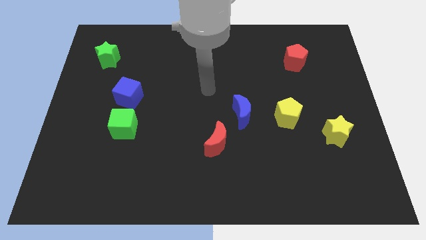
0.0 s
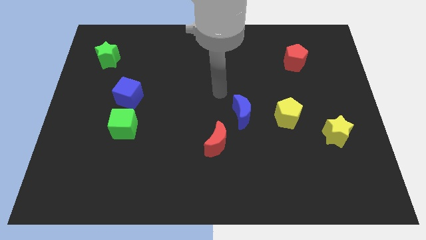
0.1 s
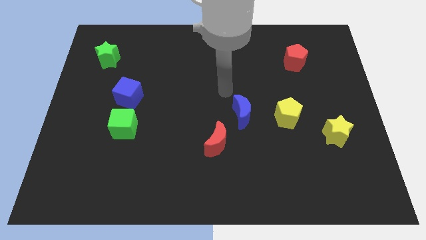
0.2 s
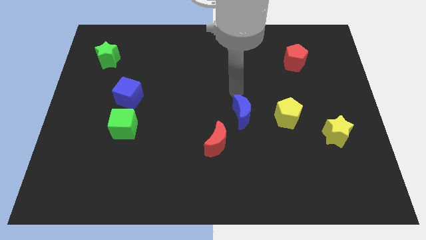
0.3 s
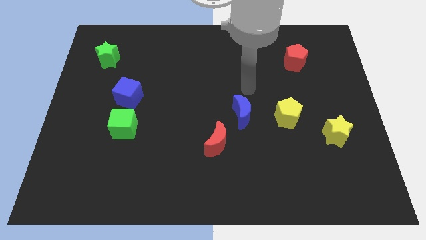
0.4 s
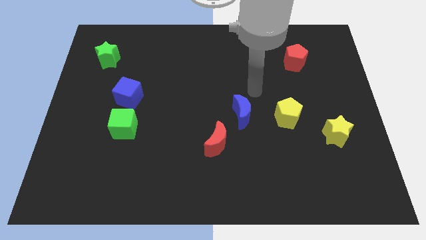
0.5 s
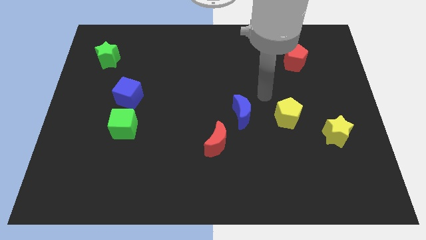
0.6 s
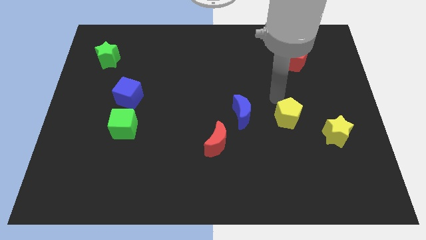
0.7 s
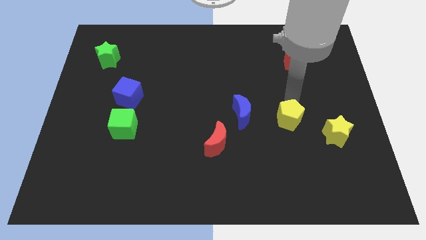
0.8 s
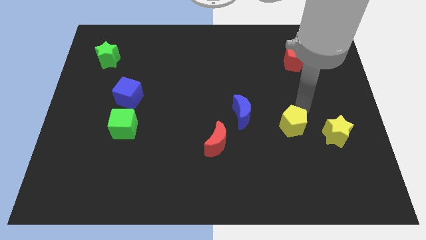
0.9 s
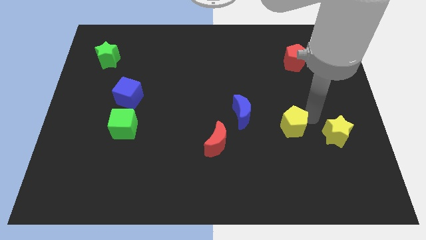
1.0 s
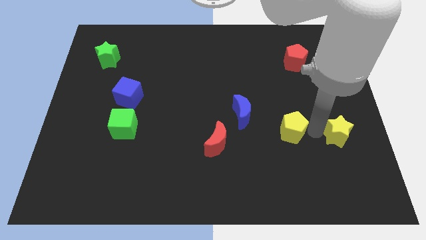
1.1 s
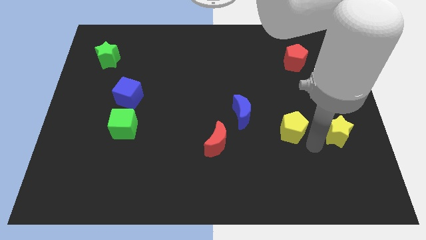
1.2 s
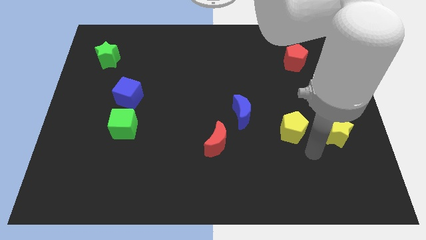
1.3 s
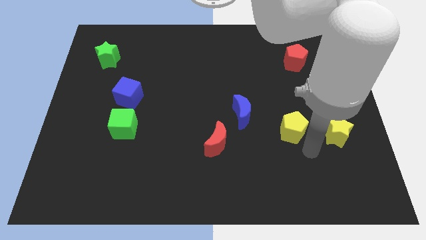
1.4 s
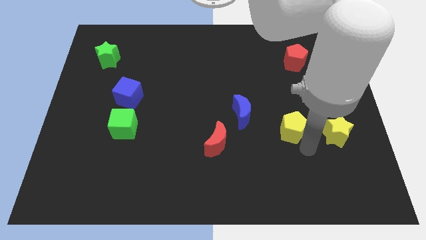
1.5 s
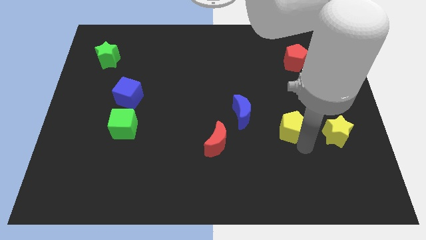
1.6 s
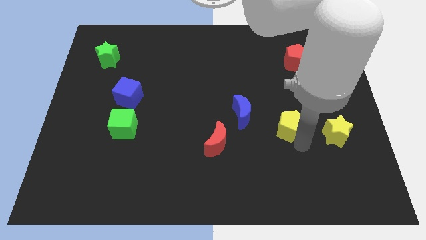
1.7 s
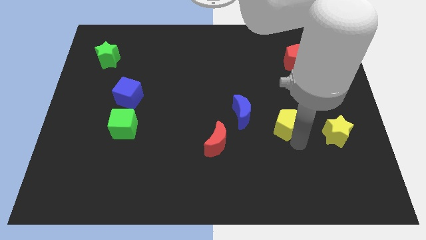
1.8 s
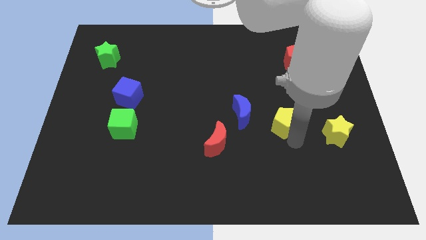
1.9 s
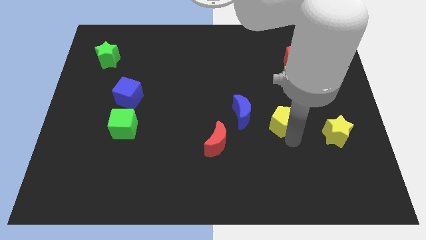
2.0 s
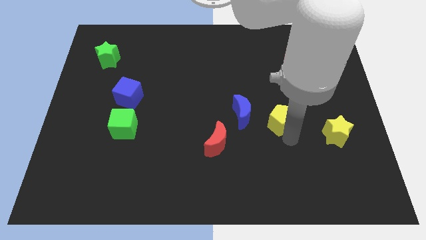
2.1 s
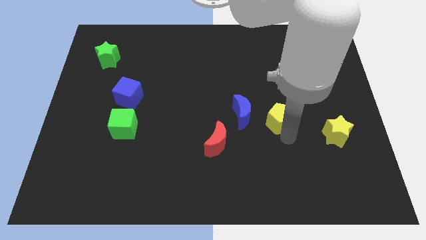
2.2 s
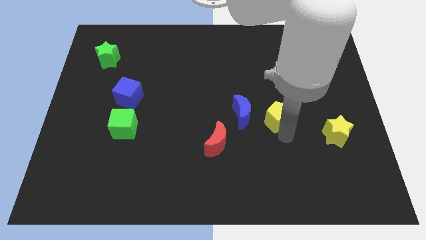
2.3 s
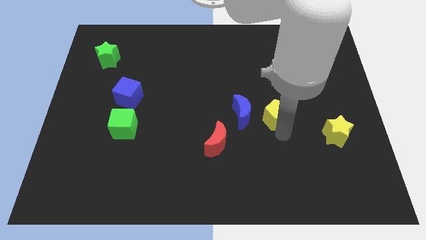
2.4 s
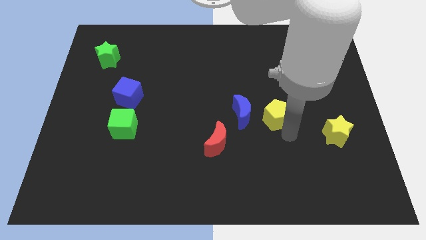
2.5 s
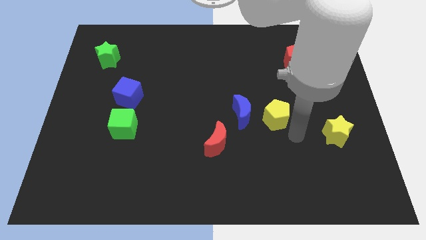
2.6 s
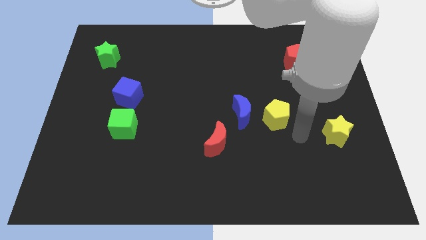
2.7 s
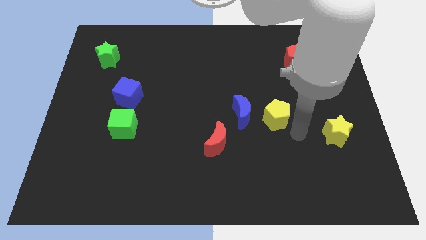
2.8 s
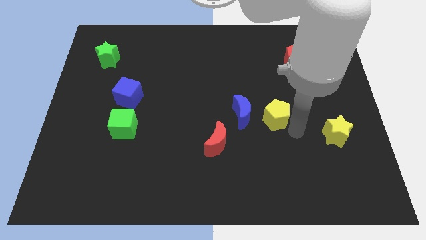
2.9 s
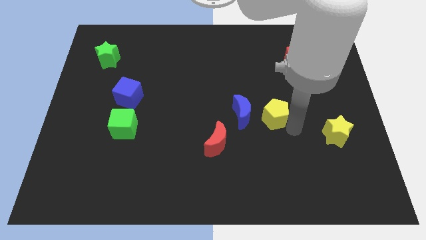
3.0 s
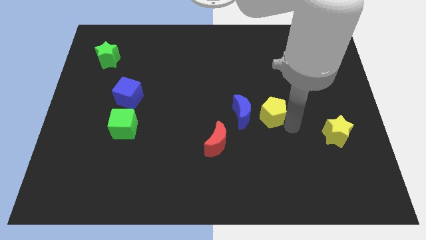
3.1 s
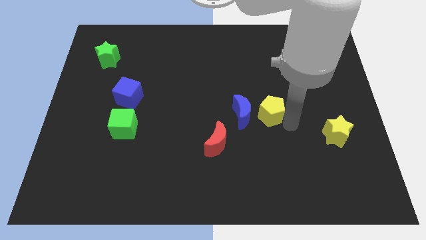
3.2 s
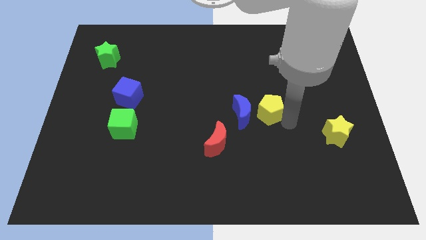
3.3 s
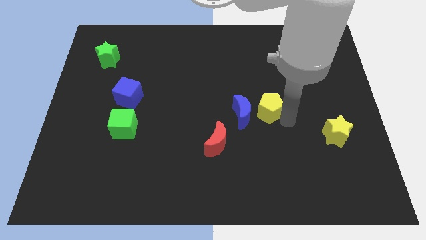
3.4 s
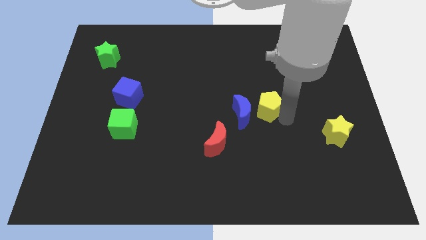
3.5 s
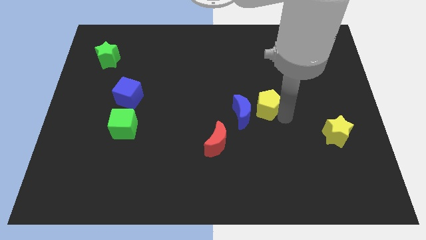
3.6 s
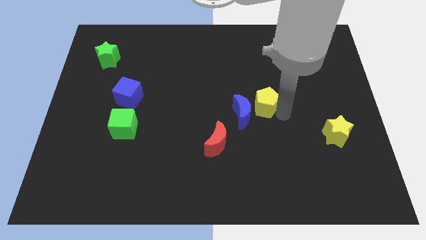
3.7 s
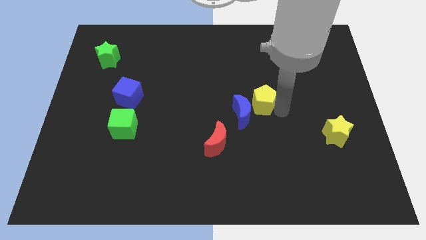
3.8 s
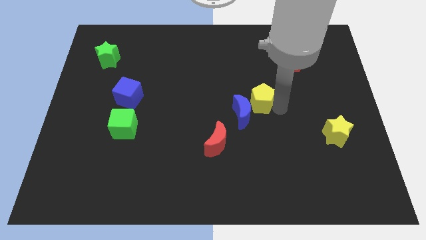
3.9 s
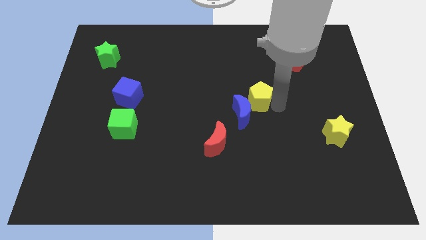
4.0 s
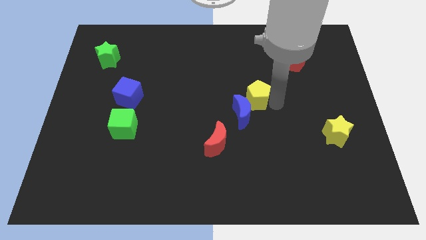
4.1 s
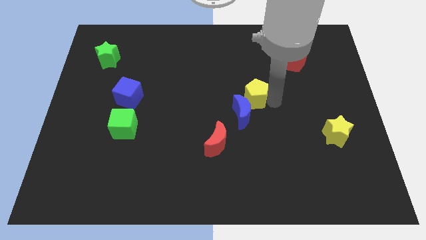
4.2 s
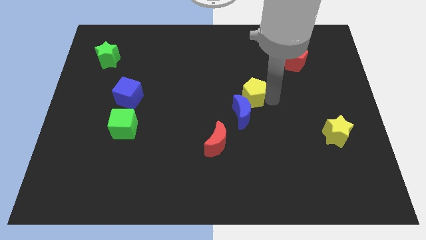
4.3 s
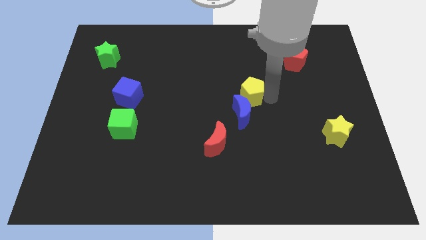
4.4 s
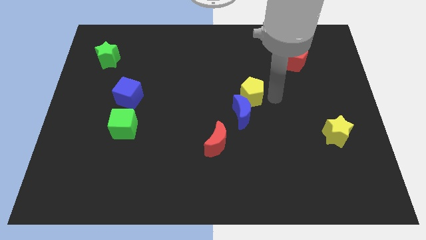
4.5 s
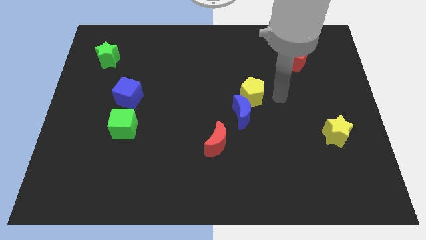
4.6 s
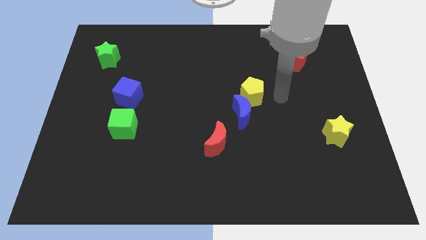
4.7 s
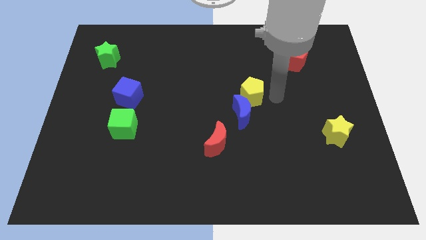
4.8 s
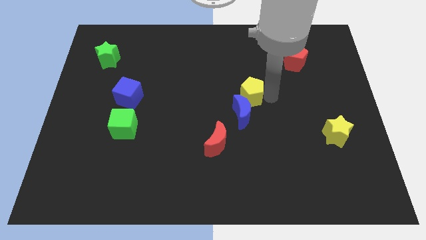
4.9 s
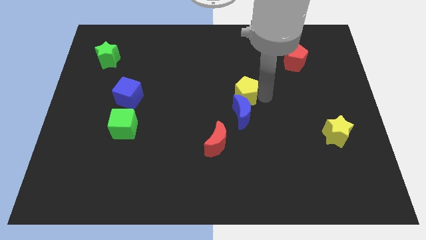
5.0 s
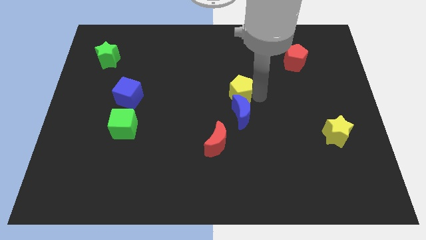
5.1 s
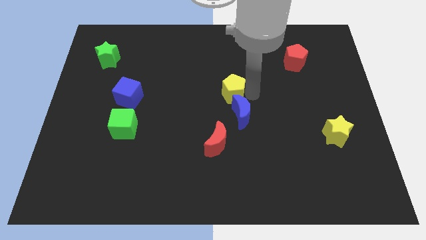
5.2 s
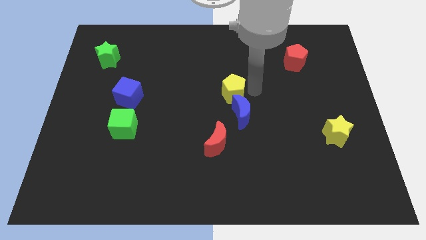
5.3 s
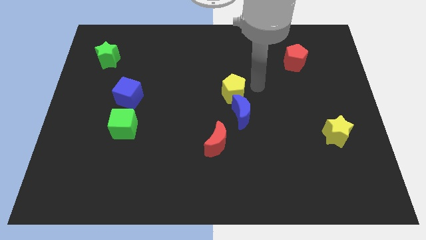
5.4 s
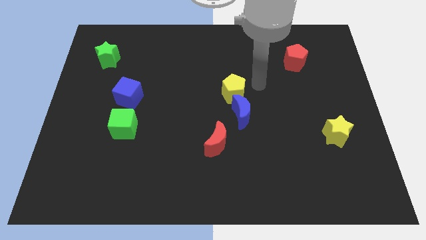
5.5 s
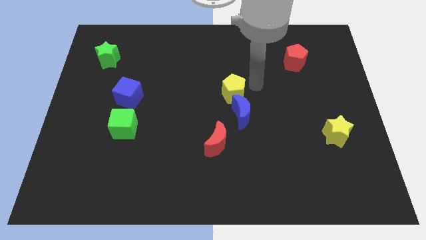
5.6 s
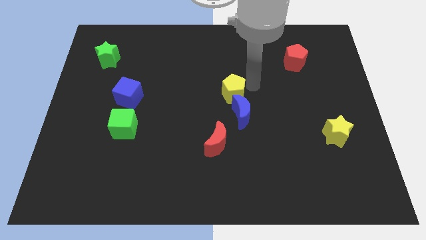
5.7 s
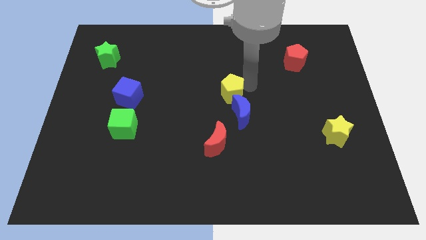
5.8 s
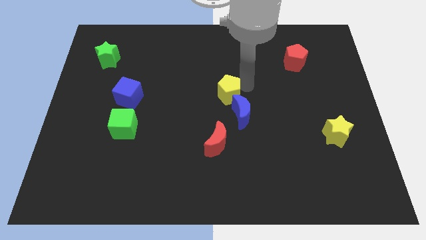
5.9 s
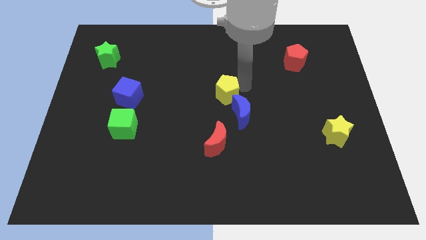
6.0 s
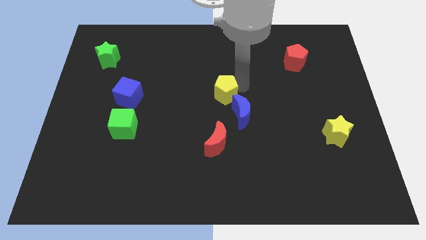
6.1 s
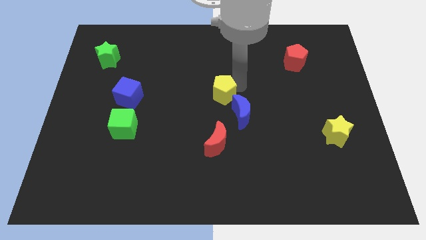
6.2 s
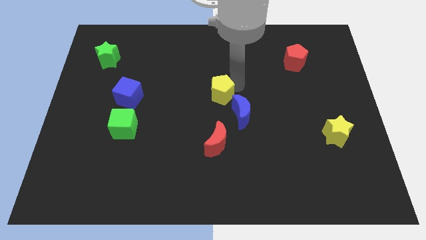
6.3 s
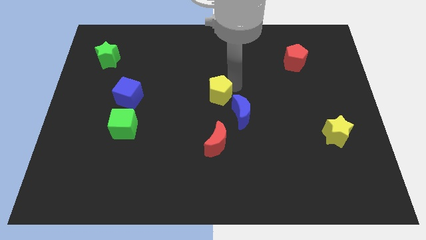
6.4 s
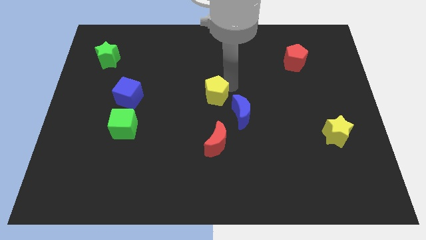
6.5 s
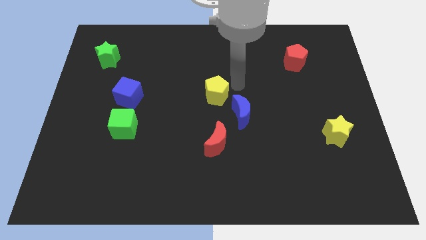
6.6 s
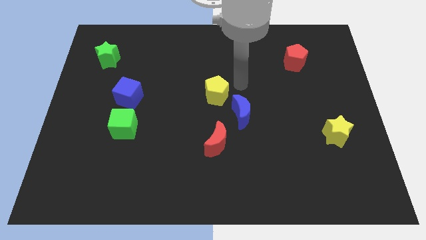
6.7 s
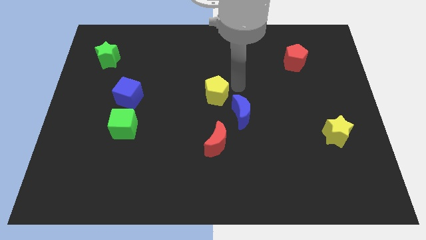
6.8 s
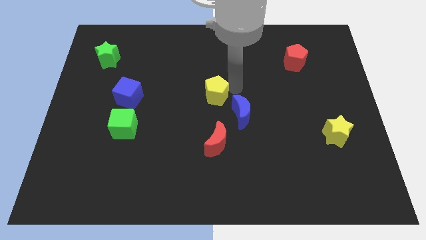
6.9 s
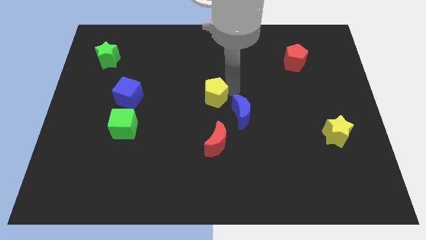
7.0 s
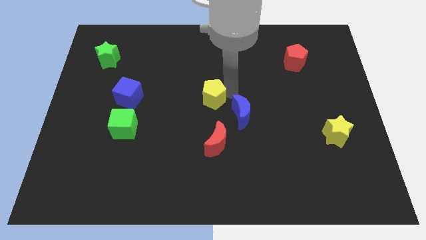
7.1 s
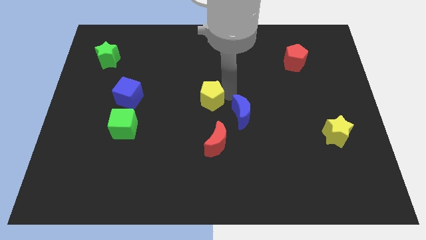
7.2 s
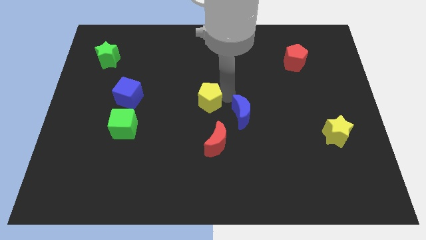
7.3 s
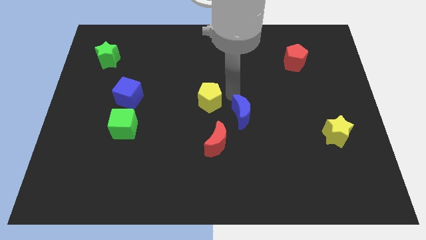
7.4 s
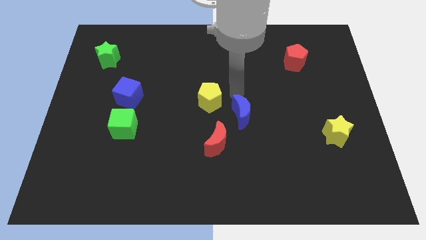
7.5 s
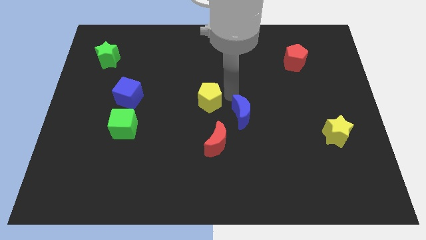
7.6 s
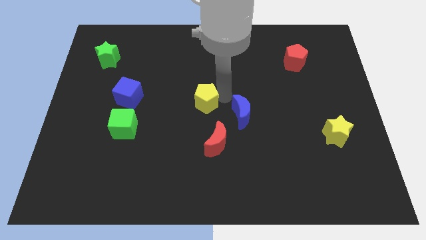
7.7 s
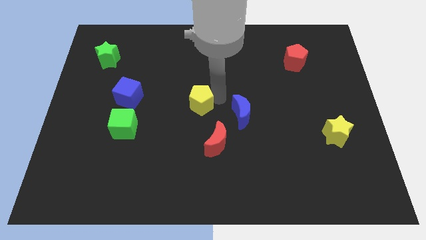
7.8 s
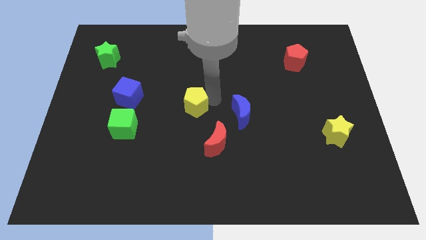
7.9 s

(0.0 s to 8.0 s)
move the yellow pentagon left
